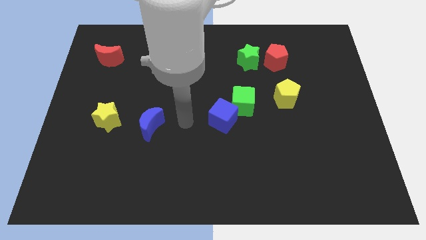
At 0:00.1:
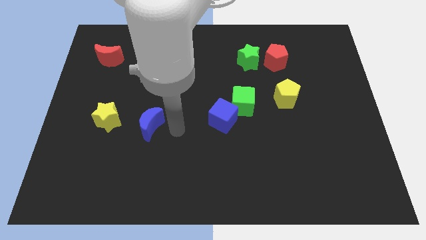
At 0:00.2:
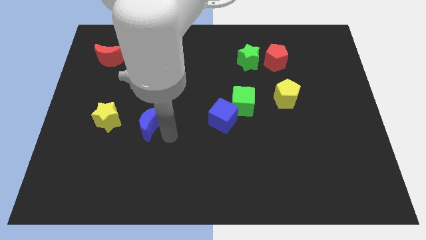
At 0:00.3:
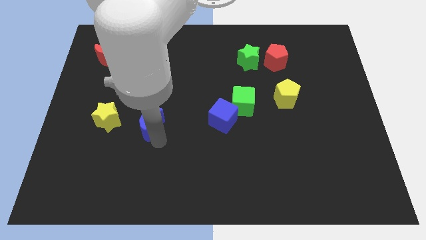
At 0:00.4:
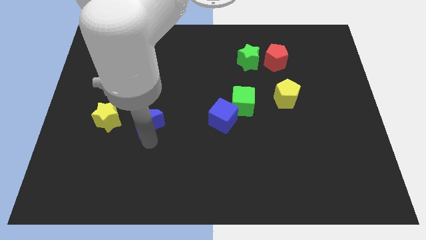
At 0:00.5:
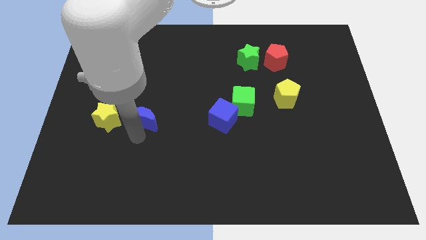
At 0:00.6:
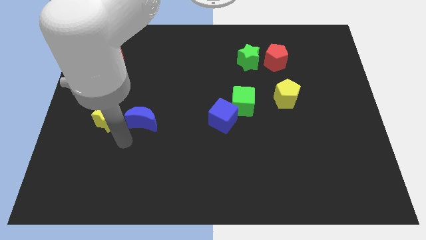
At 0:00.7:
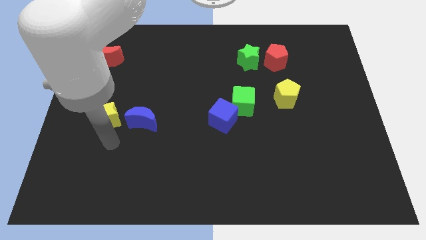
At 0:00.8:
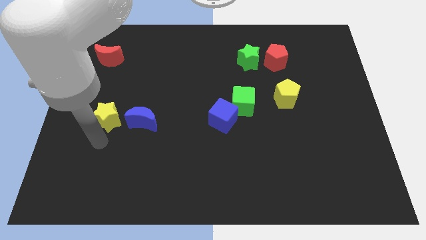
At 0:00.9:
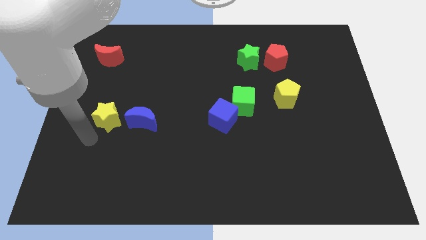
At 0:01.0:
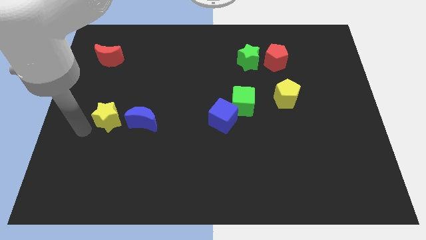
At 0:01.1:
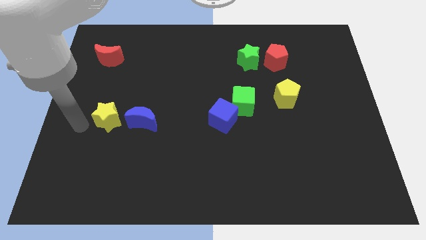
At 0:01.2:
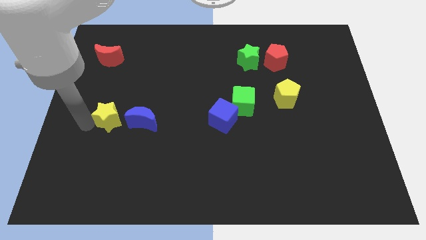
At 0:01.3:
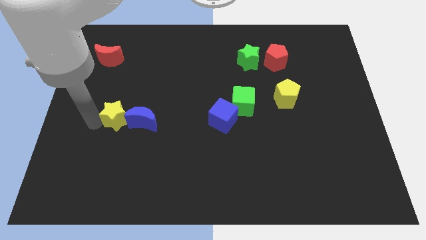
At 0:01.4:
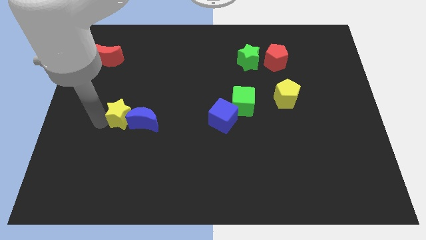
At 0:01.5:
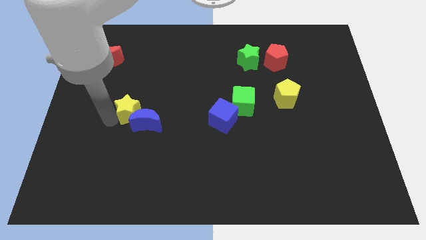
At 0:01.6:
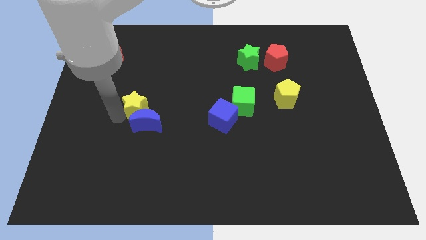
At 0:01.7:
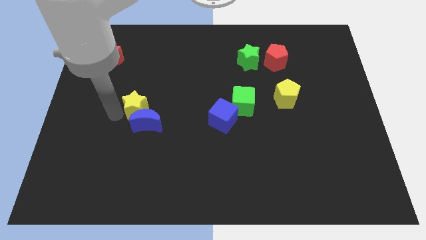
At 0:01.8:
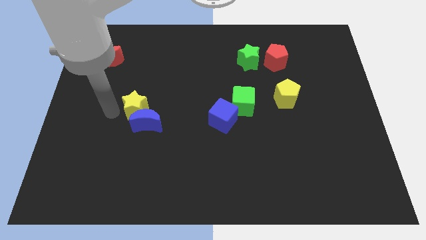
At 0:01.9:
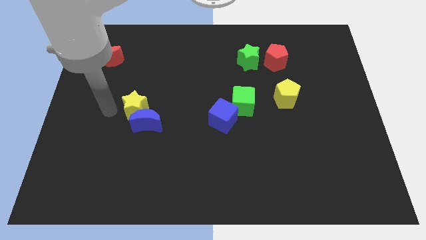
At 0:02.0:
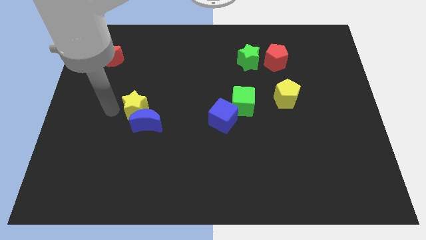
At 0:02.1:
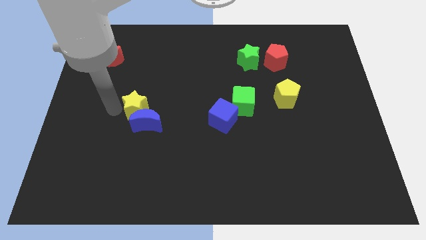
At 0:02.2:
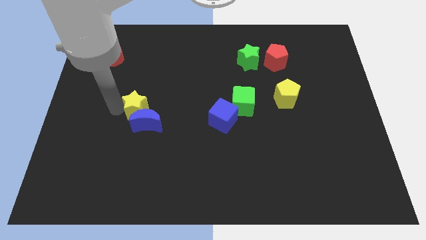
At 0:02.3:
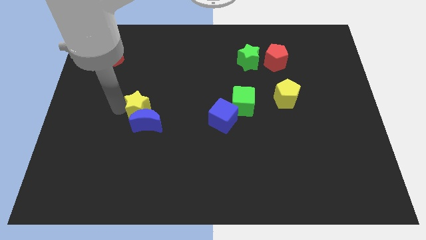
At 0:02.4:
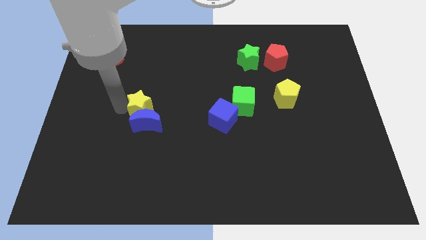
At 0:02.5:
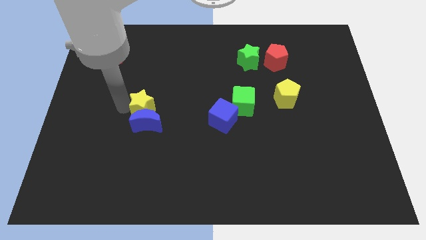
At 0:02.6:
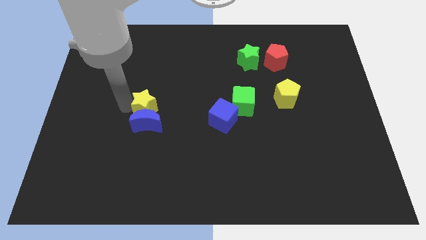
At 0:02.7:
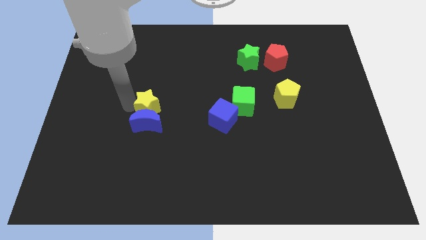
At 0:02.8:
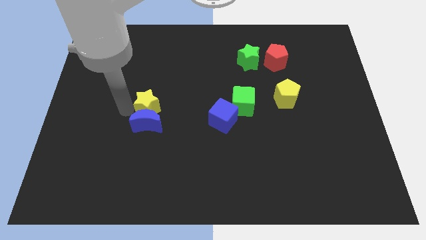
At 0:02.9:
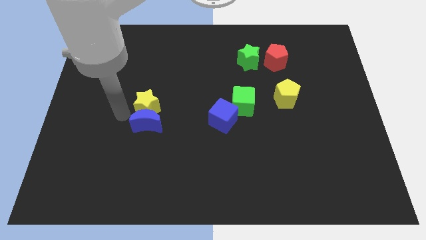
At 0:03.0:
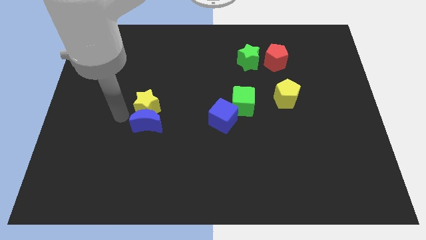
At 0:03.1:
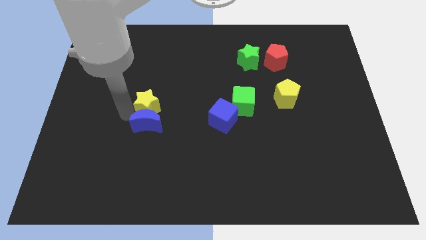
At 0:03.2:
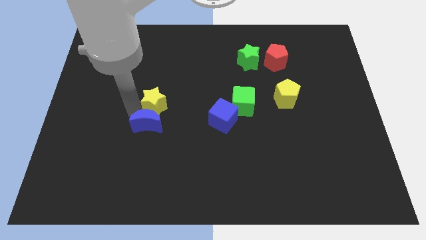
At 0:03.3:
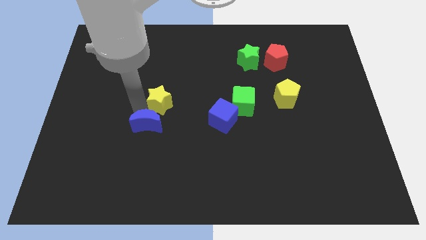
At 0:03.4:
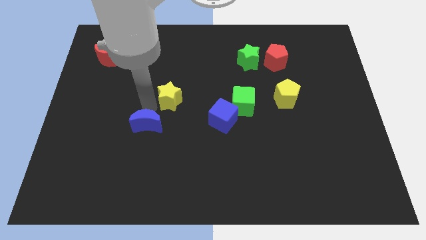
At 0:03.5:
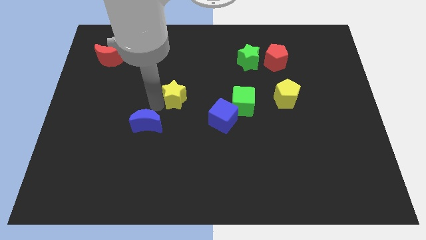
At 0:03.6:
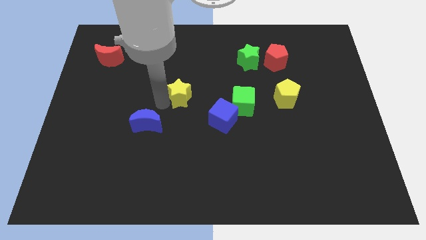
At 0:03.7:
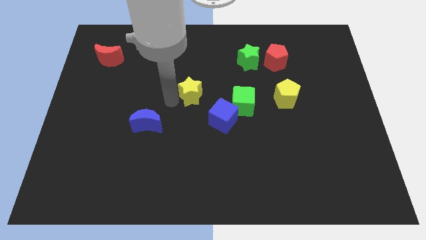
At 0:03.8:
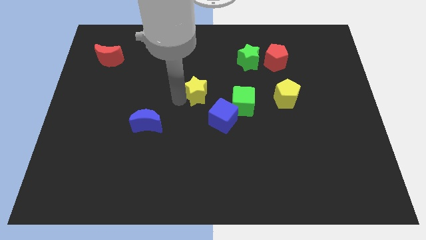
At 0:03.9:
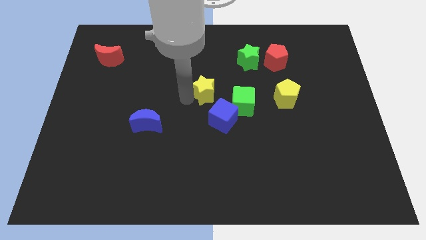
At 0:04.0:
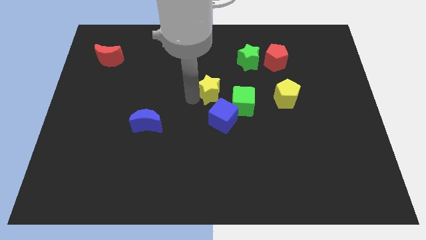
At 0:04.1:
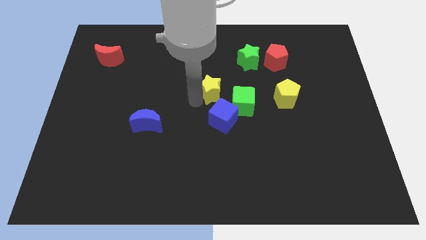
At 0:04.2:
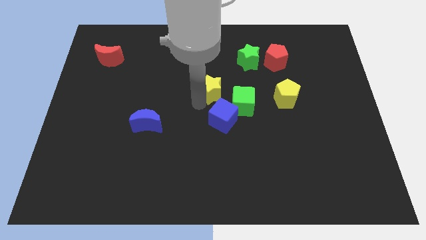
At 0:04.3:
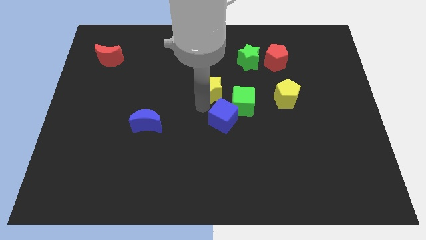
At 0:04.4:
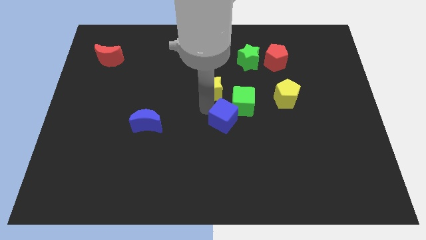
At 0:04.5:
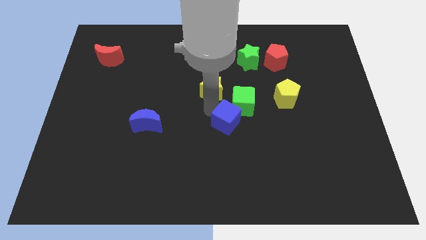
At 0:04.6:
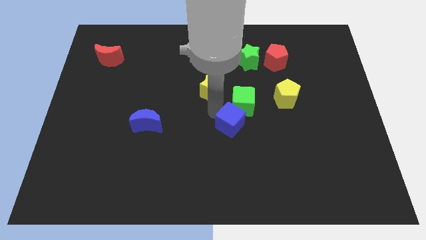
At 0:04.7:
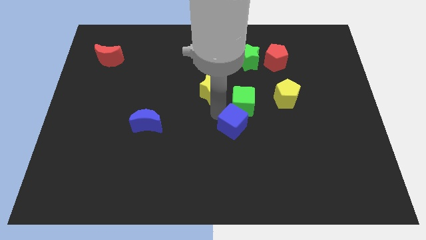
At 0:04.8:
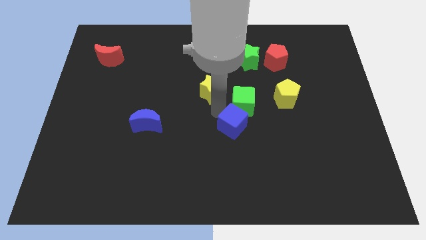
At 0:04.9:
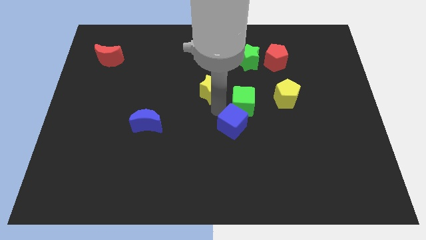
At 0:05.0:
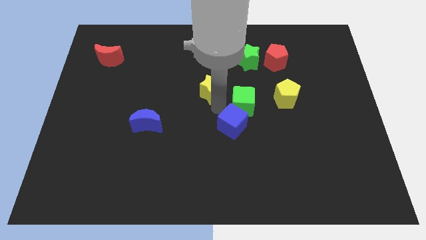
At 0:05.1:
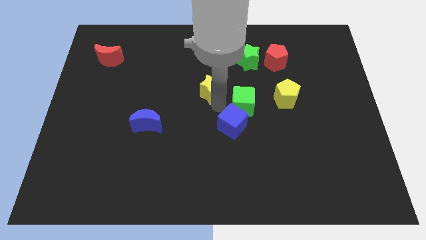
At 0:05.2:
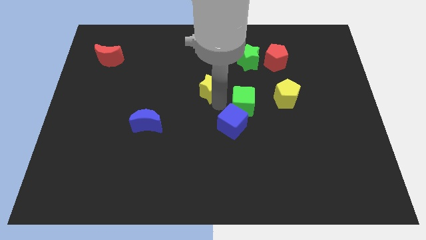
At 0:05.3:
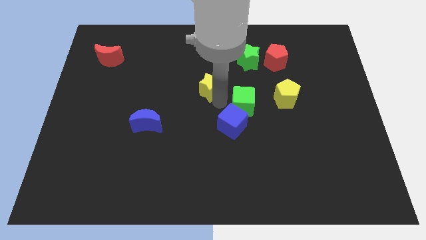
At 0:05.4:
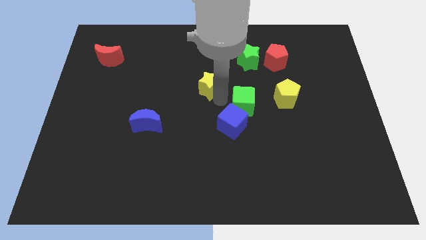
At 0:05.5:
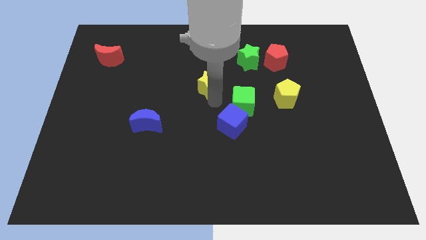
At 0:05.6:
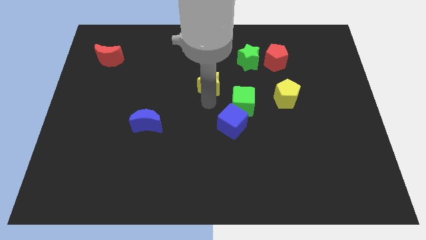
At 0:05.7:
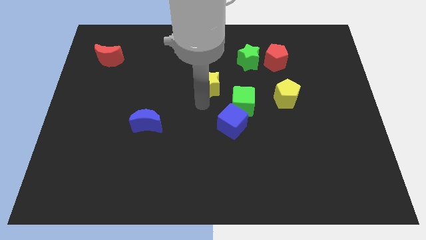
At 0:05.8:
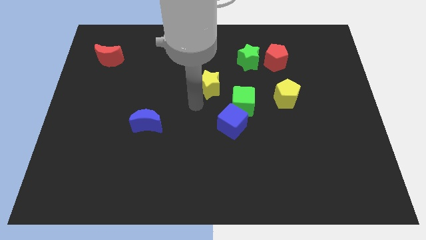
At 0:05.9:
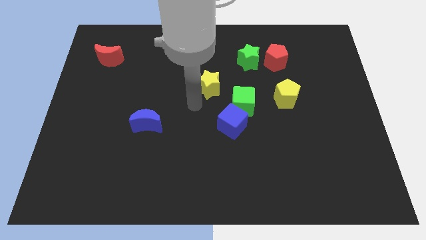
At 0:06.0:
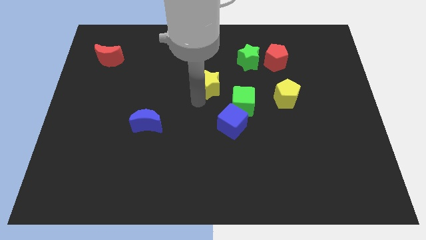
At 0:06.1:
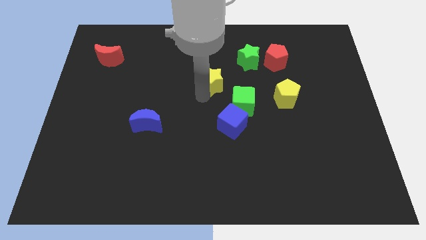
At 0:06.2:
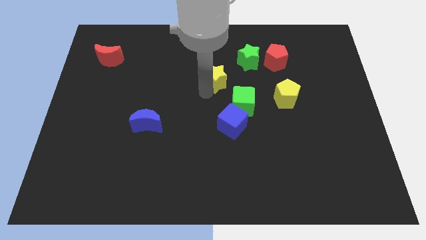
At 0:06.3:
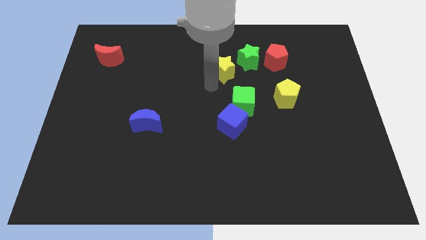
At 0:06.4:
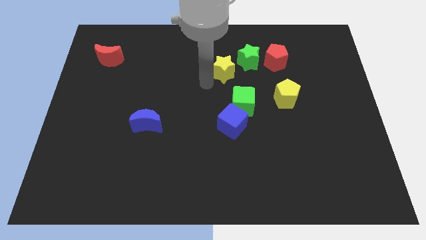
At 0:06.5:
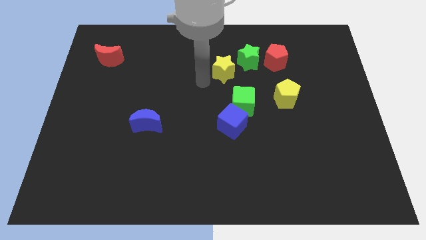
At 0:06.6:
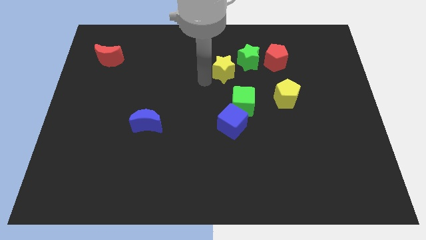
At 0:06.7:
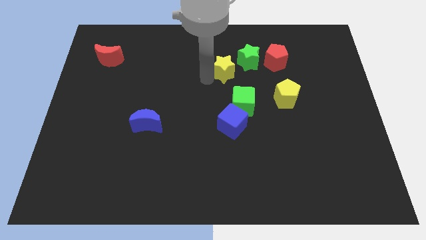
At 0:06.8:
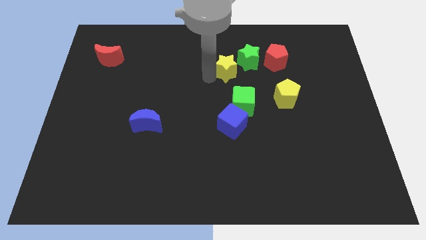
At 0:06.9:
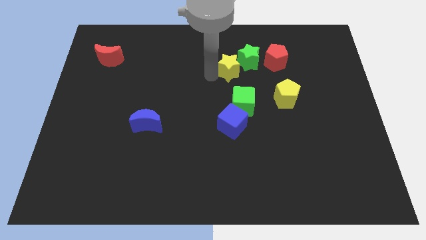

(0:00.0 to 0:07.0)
move the yellow star next to the green star

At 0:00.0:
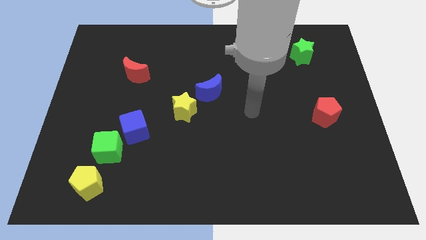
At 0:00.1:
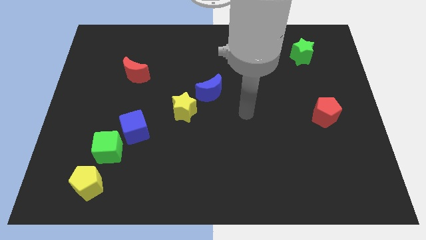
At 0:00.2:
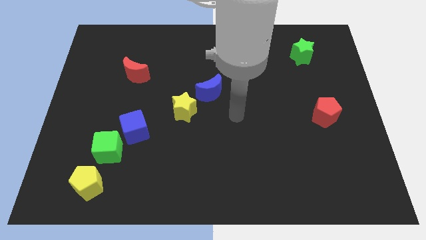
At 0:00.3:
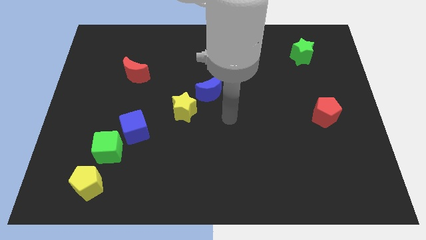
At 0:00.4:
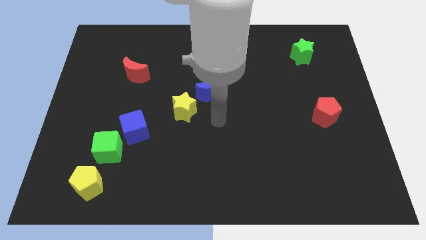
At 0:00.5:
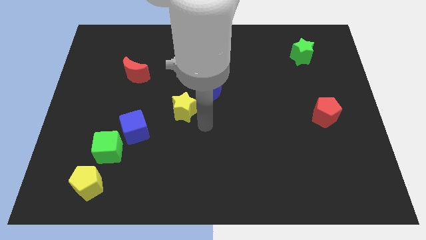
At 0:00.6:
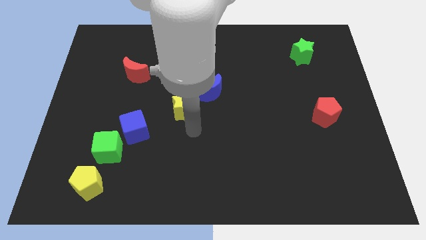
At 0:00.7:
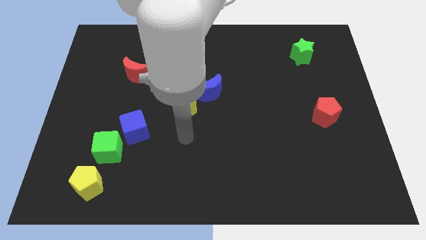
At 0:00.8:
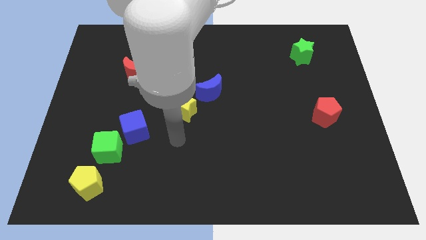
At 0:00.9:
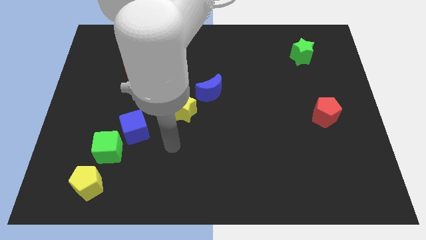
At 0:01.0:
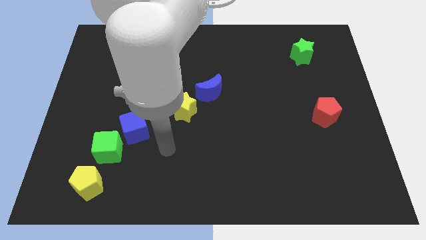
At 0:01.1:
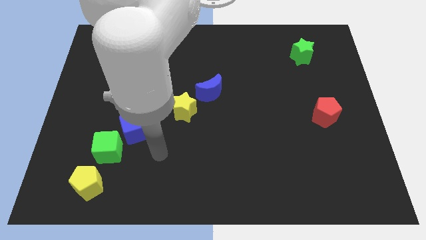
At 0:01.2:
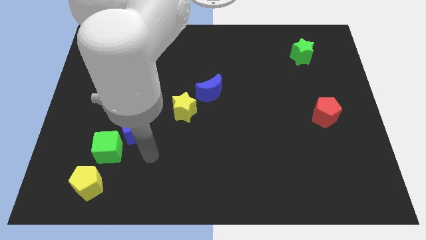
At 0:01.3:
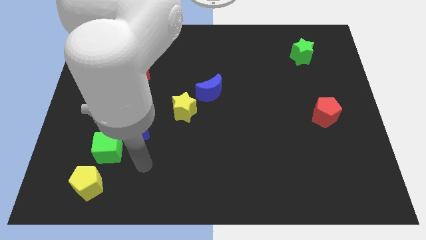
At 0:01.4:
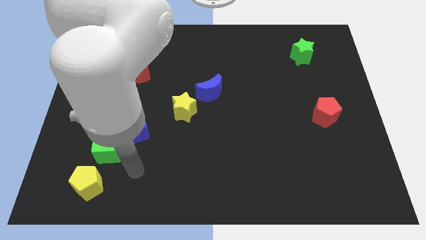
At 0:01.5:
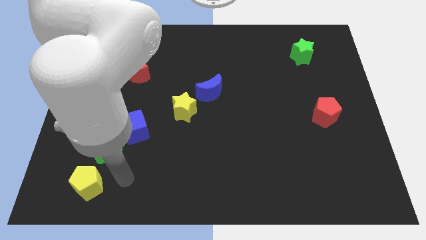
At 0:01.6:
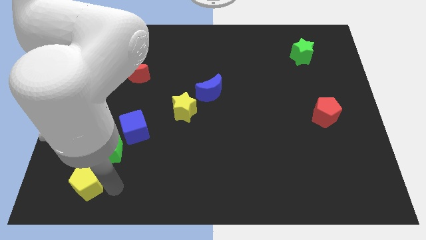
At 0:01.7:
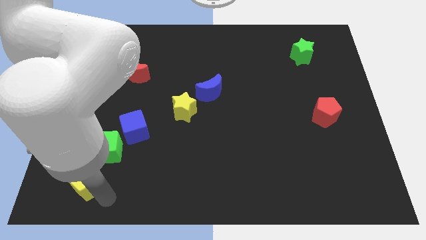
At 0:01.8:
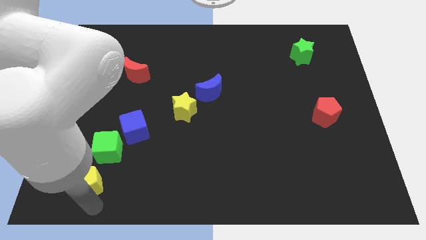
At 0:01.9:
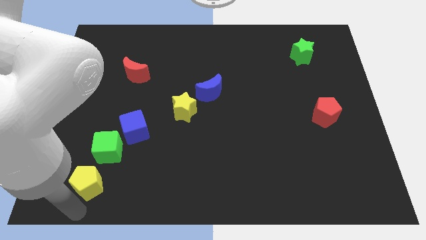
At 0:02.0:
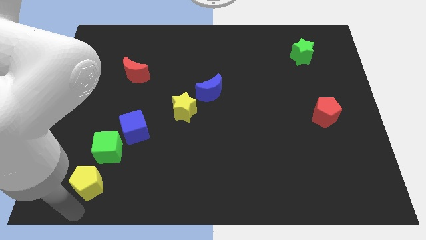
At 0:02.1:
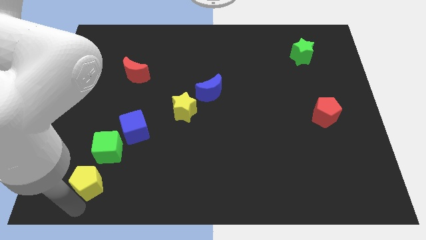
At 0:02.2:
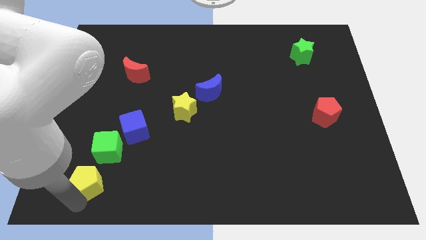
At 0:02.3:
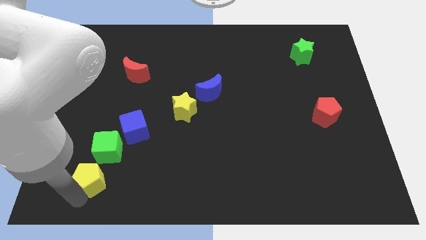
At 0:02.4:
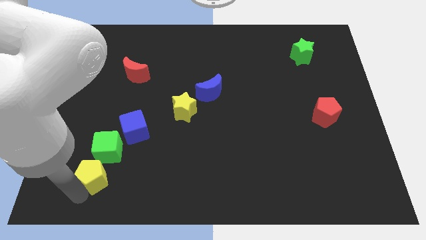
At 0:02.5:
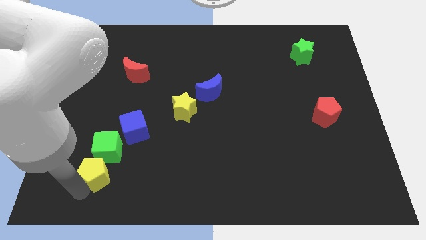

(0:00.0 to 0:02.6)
move the yellow pentagon close to the green cube
